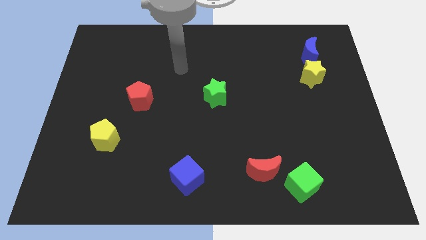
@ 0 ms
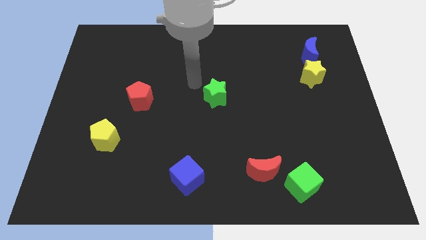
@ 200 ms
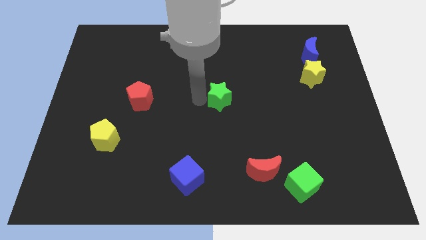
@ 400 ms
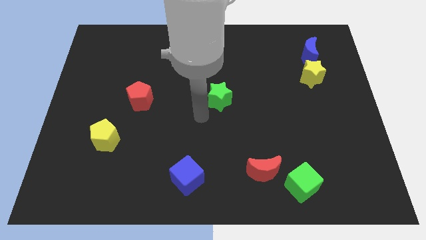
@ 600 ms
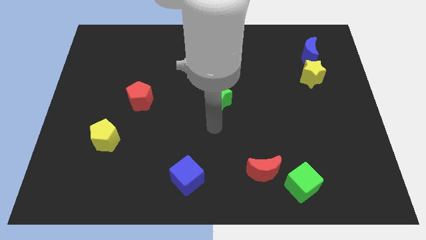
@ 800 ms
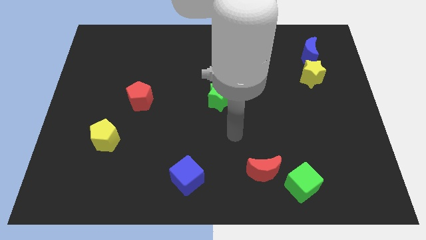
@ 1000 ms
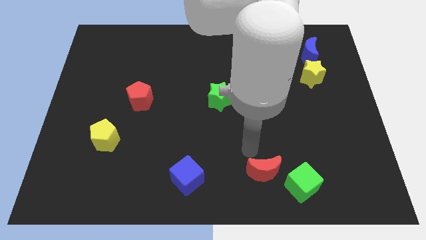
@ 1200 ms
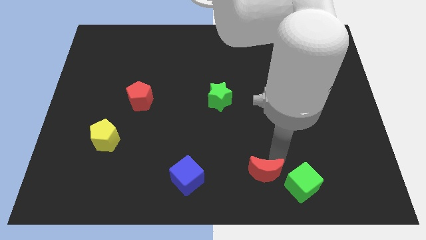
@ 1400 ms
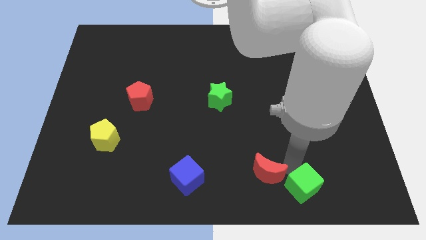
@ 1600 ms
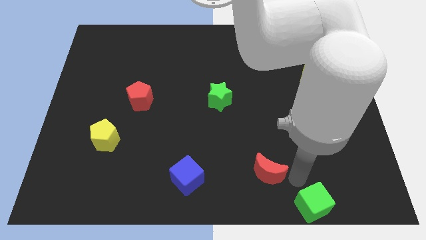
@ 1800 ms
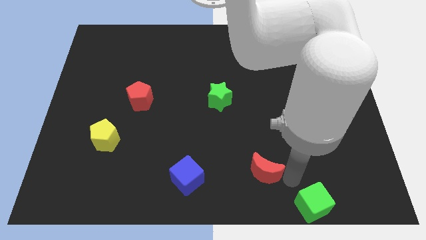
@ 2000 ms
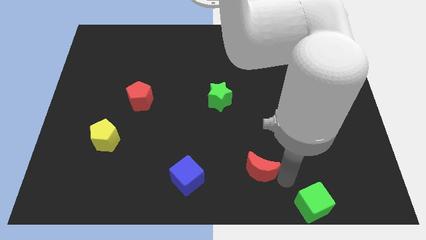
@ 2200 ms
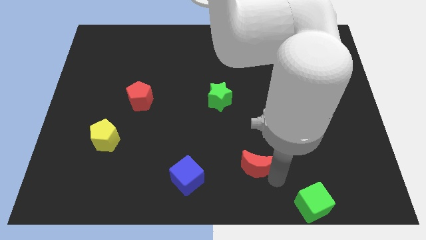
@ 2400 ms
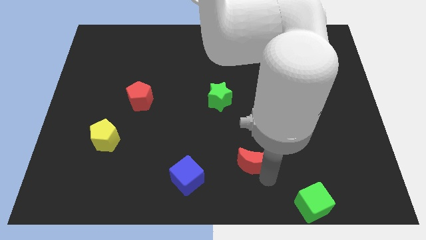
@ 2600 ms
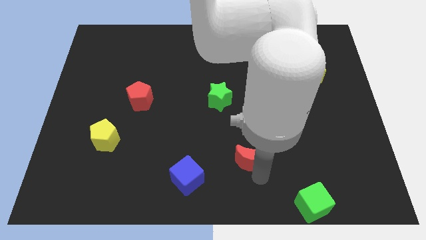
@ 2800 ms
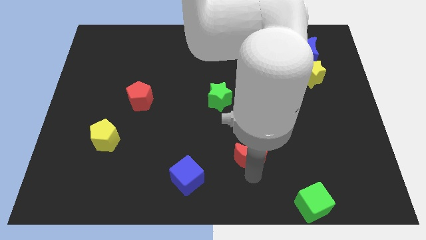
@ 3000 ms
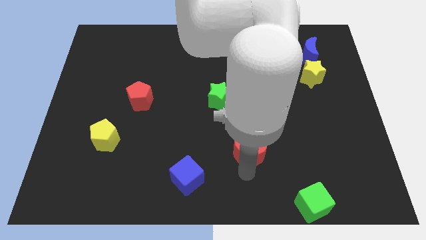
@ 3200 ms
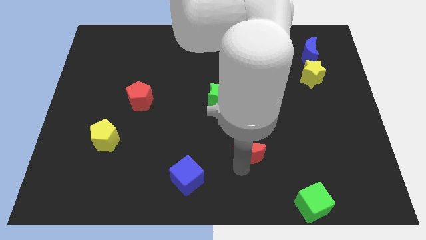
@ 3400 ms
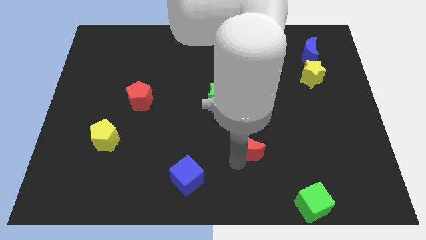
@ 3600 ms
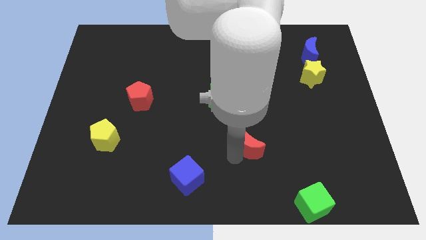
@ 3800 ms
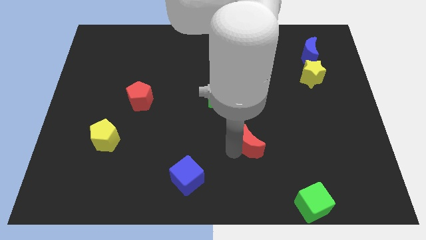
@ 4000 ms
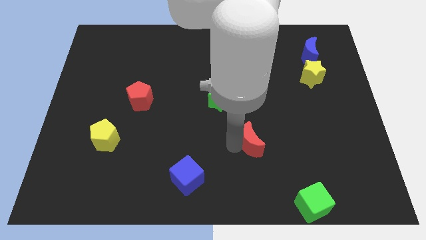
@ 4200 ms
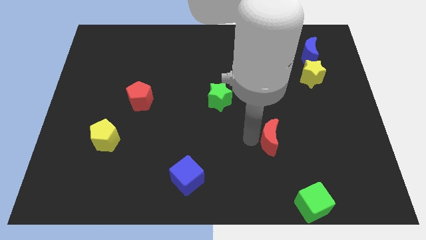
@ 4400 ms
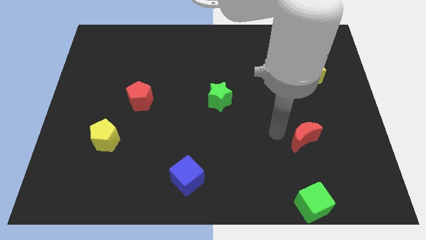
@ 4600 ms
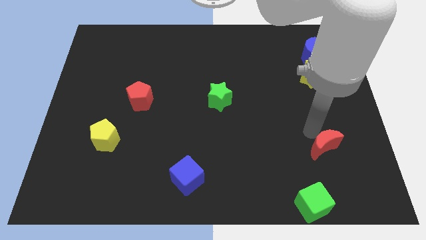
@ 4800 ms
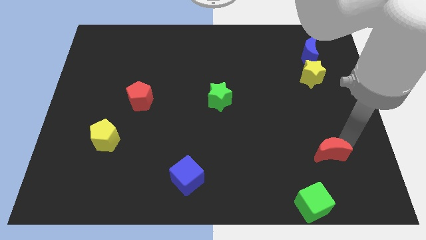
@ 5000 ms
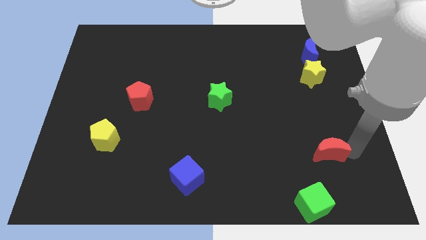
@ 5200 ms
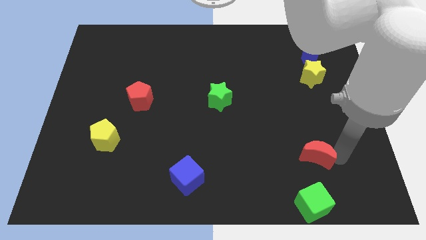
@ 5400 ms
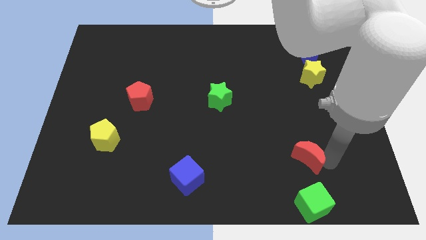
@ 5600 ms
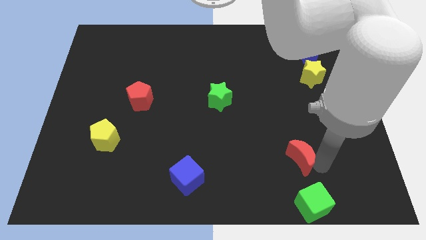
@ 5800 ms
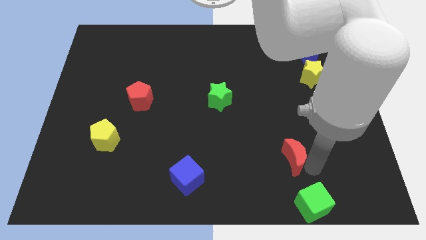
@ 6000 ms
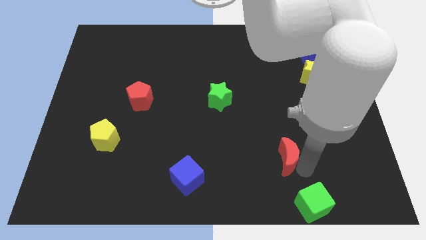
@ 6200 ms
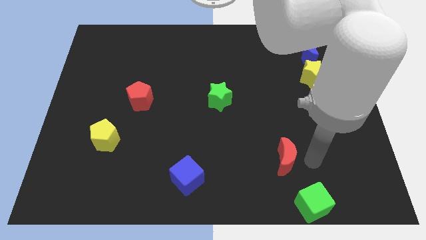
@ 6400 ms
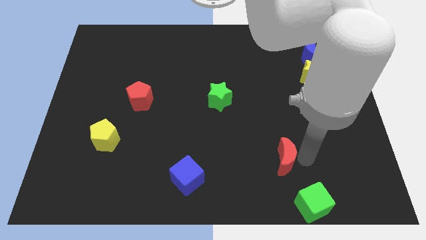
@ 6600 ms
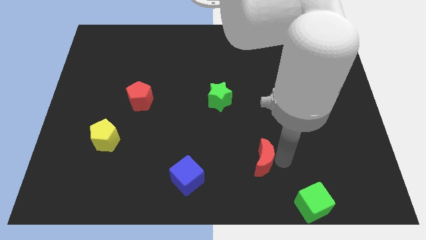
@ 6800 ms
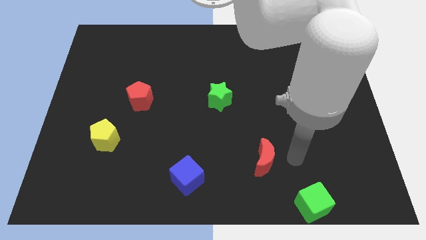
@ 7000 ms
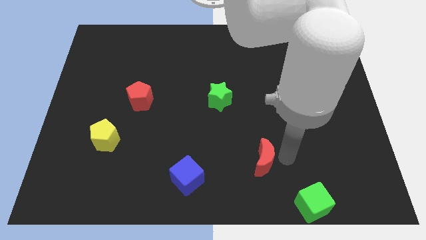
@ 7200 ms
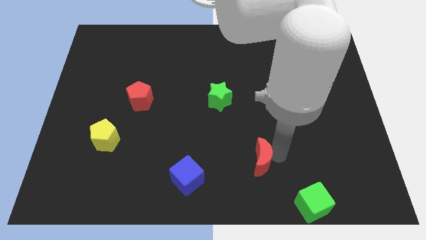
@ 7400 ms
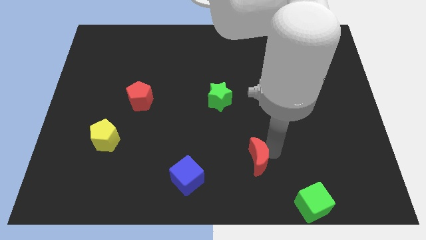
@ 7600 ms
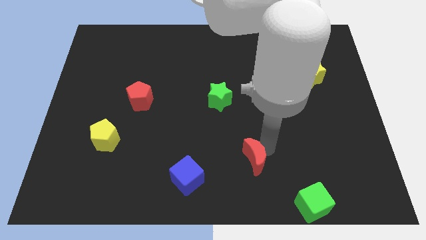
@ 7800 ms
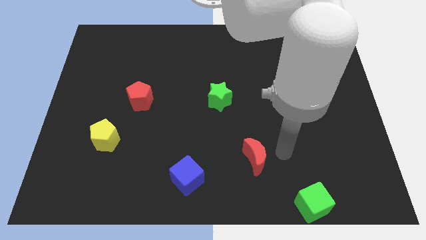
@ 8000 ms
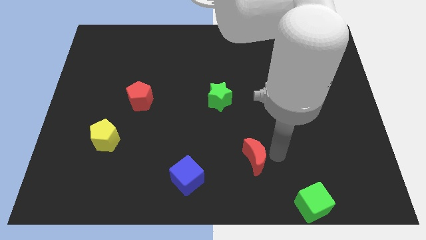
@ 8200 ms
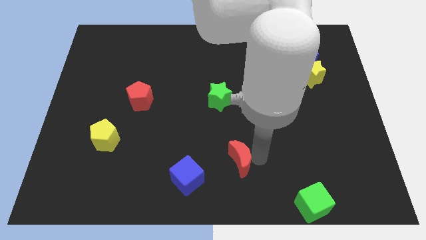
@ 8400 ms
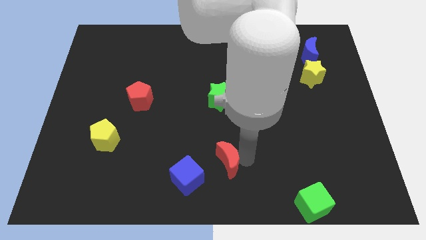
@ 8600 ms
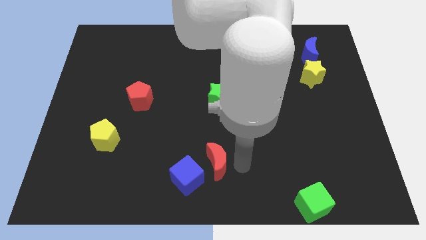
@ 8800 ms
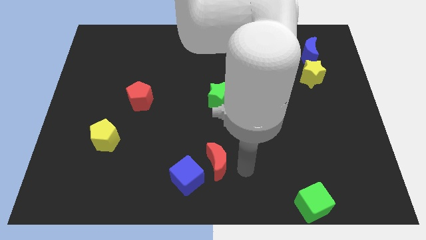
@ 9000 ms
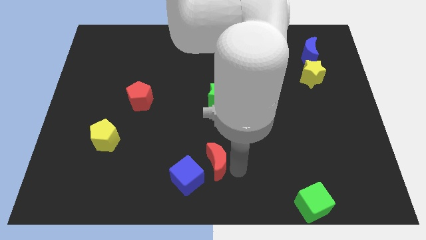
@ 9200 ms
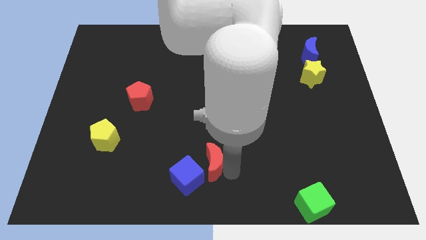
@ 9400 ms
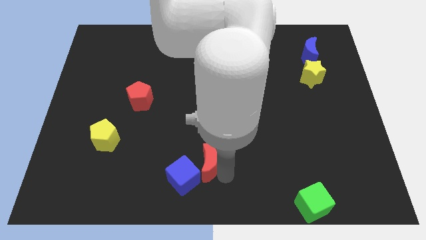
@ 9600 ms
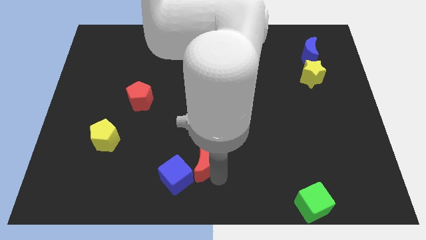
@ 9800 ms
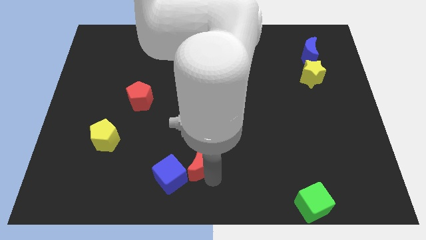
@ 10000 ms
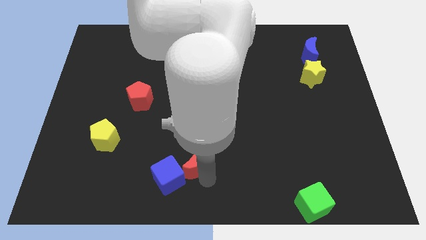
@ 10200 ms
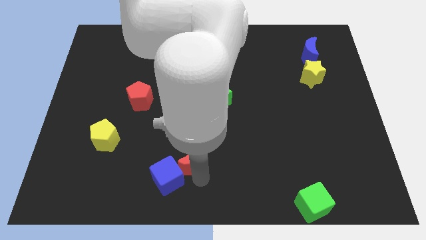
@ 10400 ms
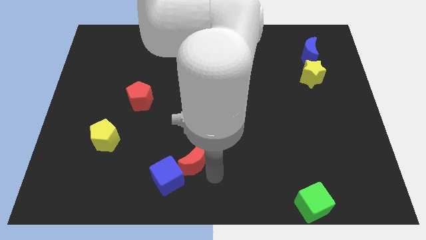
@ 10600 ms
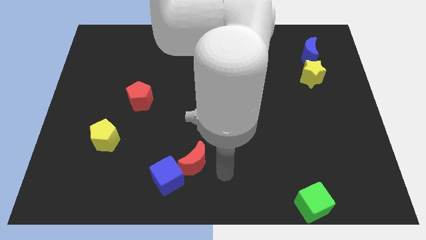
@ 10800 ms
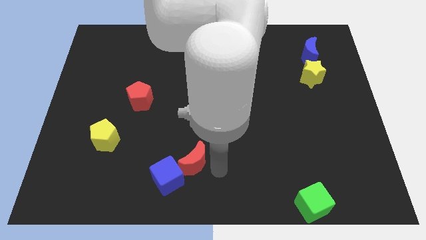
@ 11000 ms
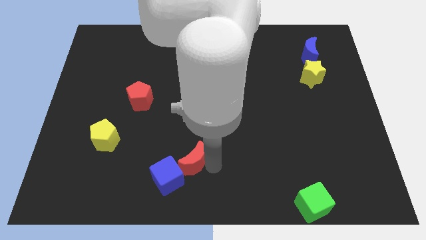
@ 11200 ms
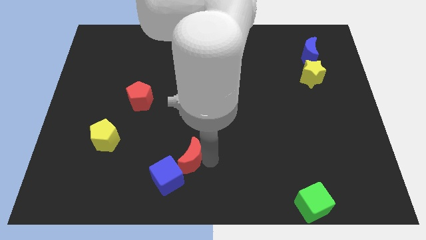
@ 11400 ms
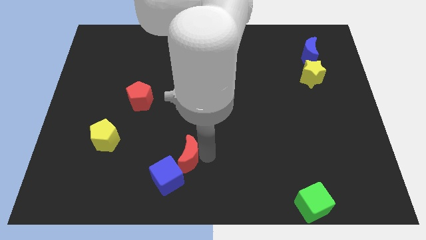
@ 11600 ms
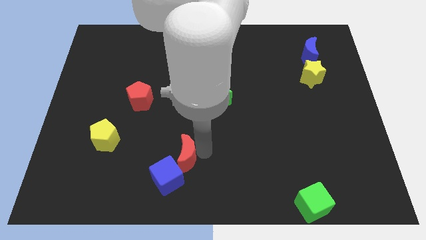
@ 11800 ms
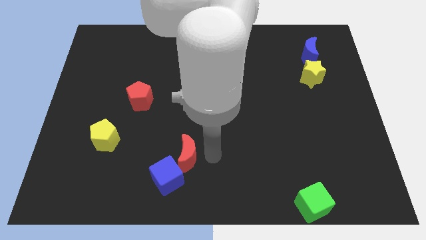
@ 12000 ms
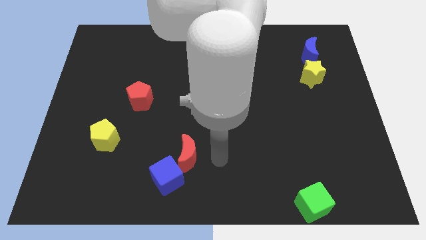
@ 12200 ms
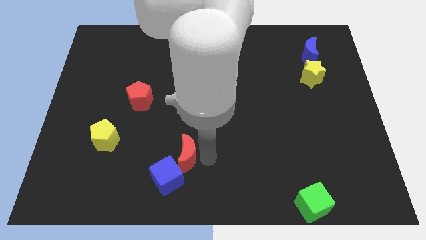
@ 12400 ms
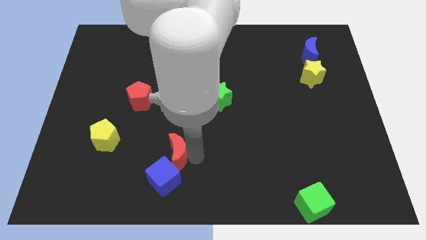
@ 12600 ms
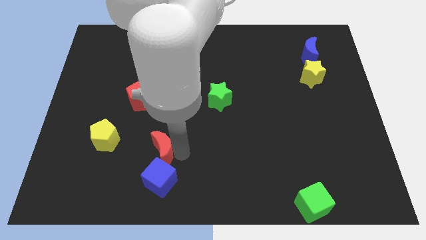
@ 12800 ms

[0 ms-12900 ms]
push the red moon to the left

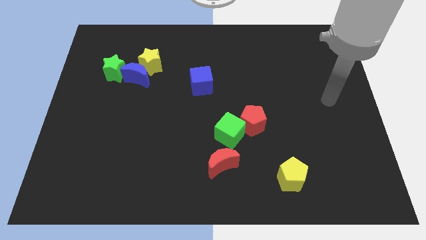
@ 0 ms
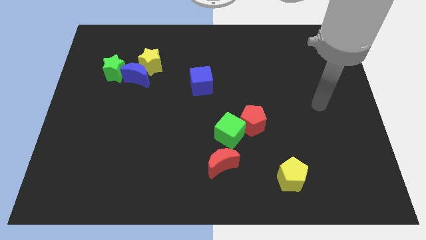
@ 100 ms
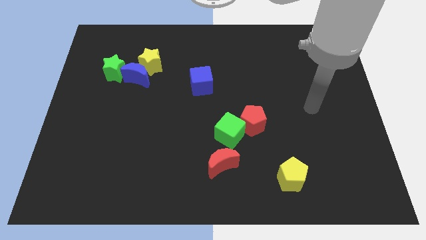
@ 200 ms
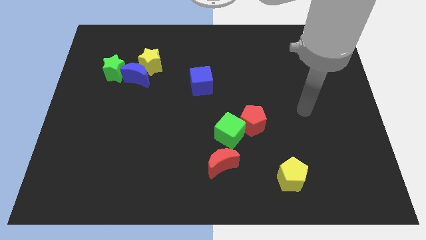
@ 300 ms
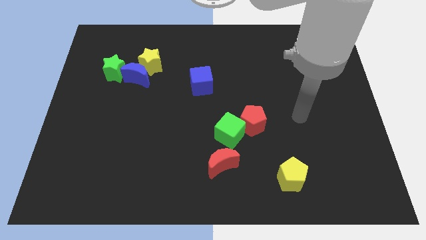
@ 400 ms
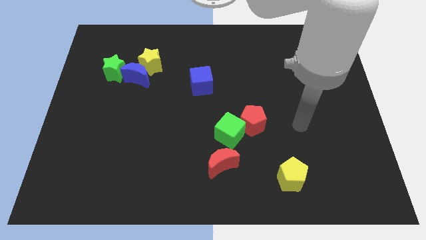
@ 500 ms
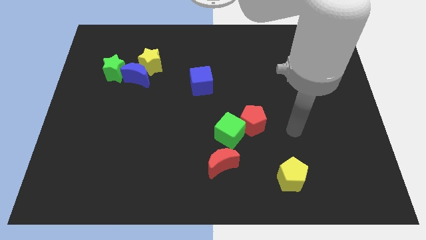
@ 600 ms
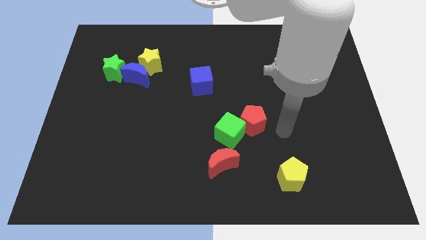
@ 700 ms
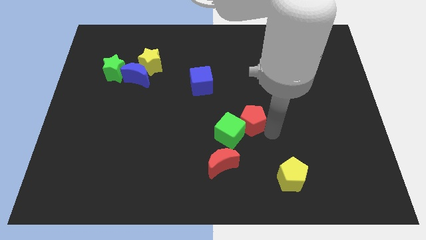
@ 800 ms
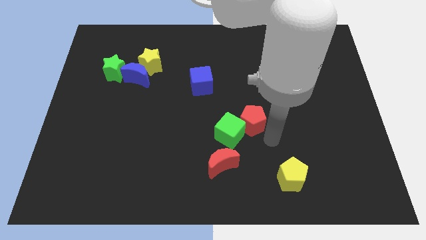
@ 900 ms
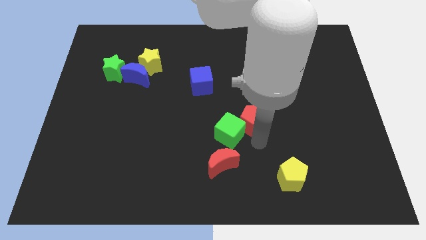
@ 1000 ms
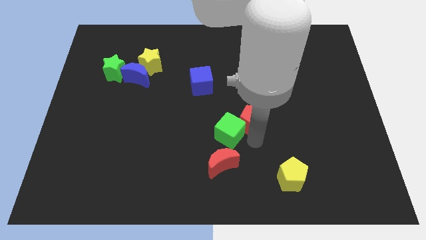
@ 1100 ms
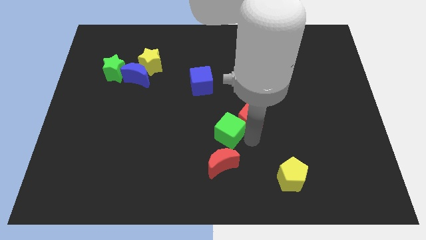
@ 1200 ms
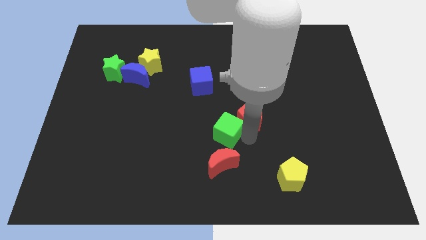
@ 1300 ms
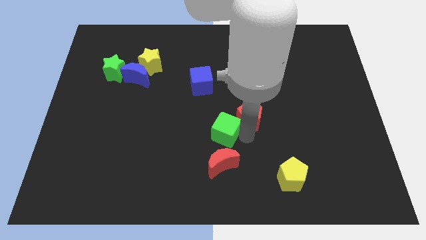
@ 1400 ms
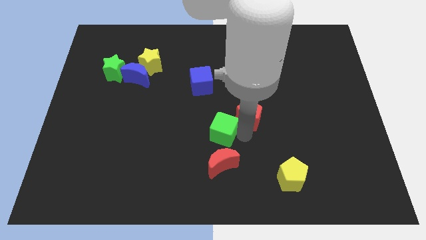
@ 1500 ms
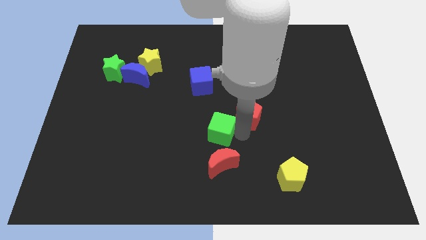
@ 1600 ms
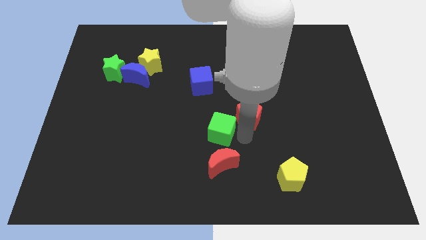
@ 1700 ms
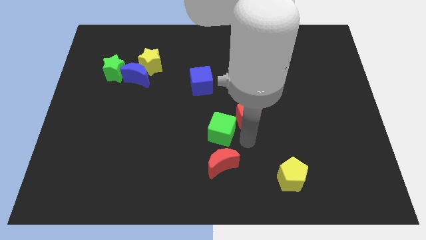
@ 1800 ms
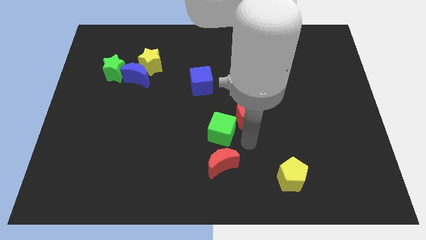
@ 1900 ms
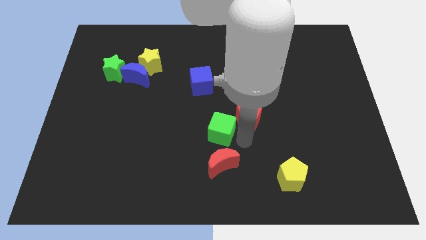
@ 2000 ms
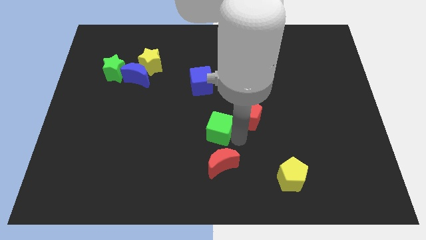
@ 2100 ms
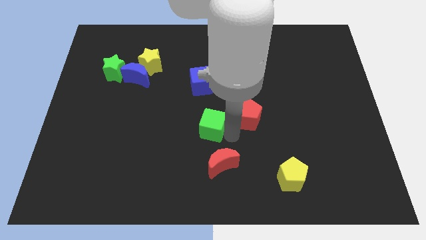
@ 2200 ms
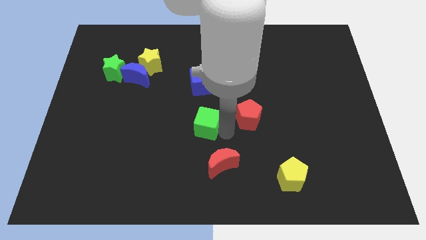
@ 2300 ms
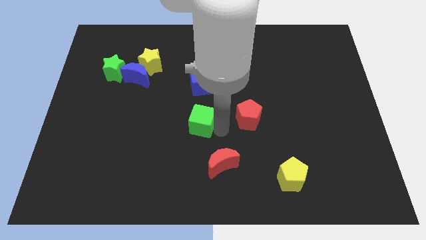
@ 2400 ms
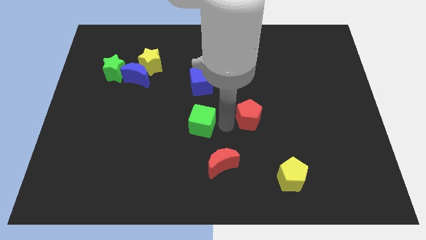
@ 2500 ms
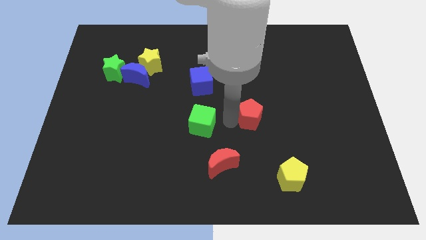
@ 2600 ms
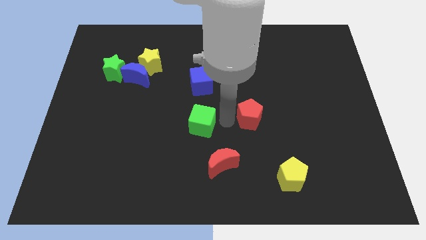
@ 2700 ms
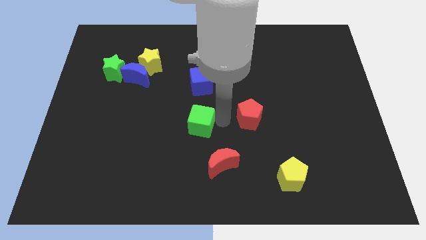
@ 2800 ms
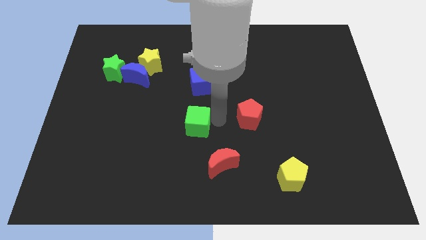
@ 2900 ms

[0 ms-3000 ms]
push the green cube to the left a bit
